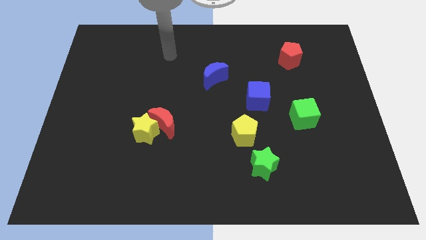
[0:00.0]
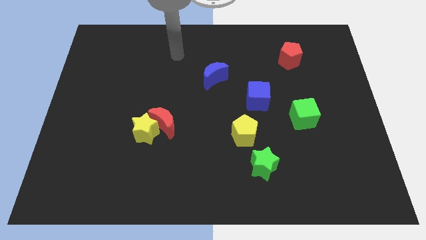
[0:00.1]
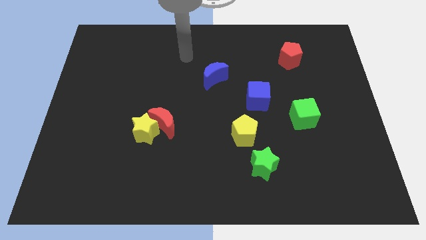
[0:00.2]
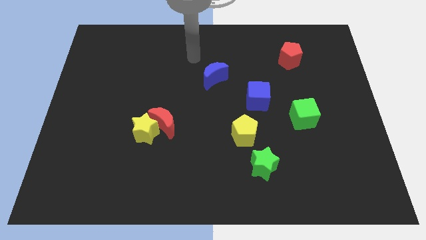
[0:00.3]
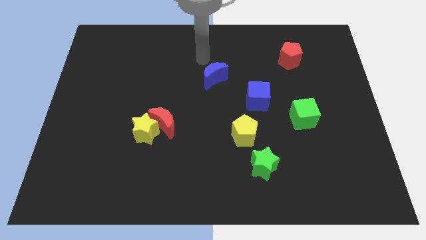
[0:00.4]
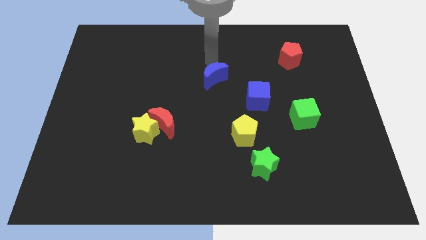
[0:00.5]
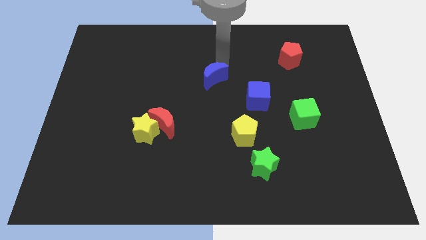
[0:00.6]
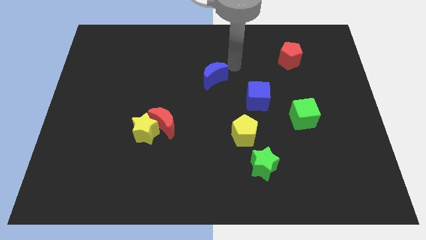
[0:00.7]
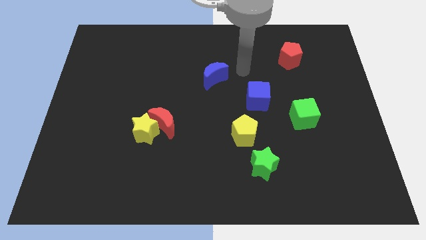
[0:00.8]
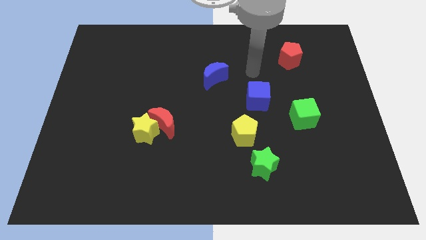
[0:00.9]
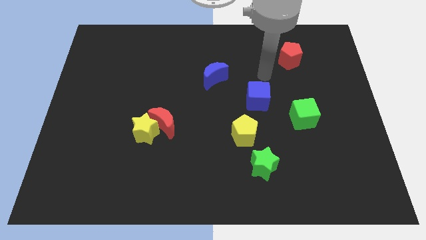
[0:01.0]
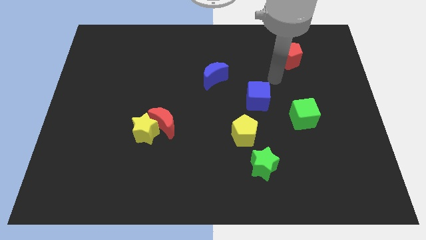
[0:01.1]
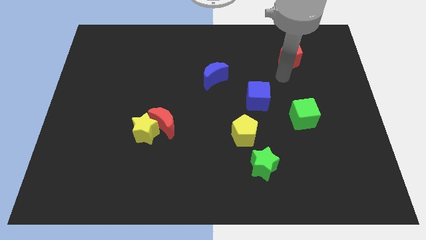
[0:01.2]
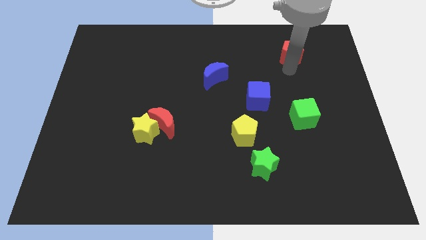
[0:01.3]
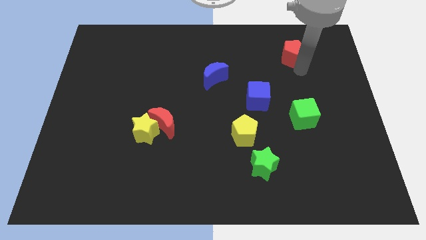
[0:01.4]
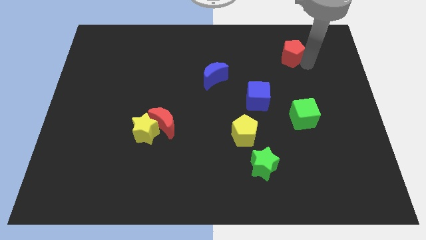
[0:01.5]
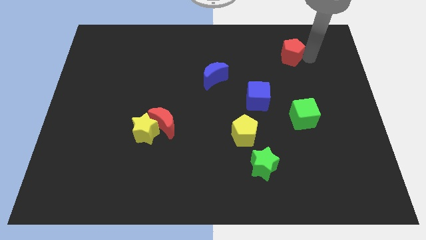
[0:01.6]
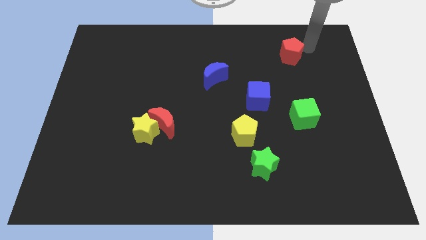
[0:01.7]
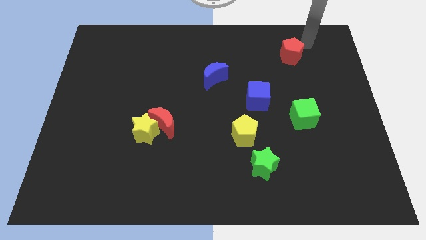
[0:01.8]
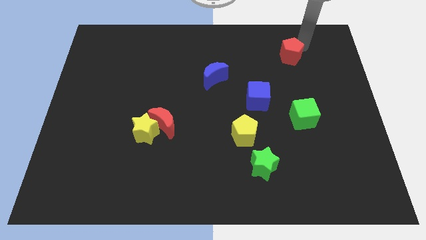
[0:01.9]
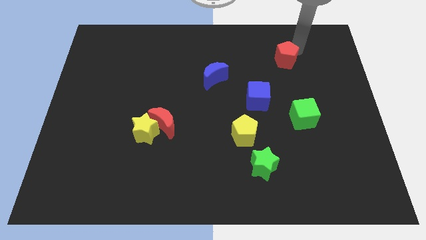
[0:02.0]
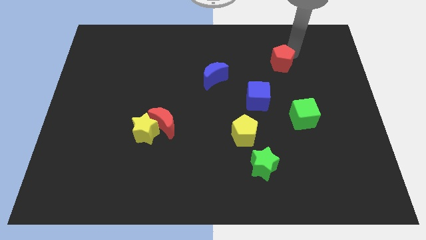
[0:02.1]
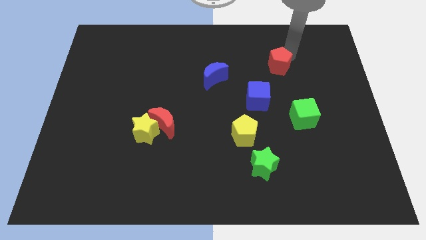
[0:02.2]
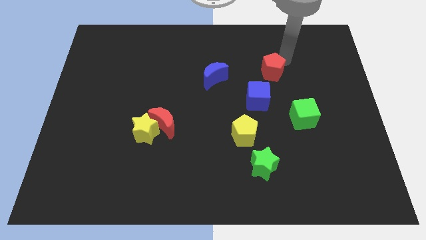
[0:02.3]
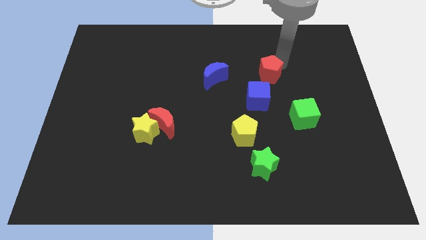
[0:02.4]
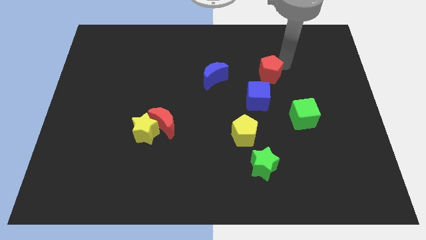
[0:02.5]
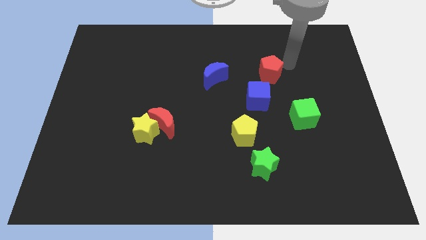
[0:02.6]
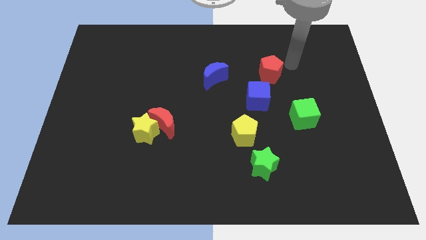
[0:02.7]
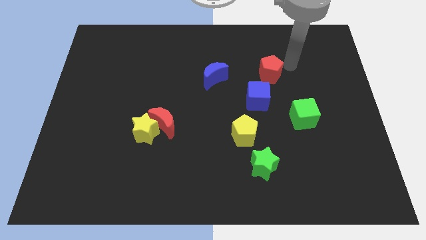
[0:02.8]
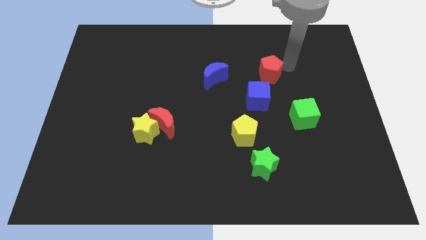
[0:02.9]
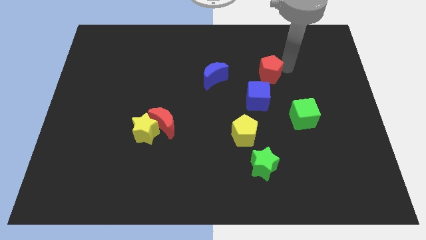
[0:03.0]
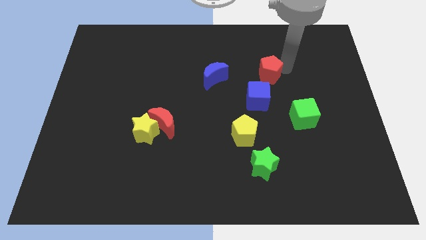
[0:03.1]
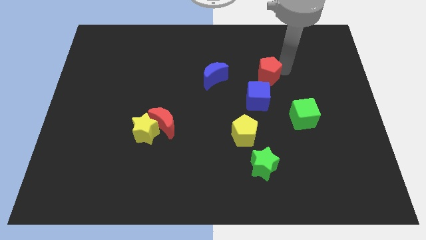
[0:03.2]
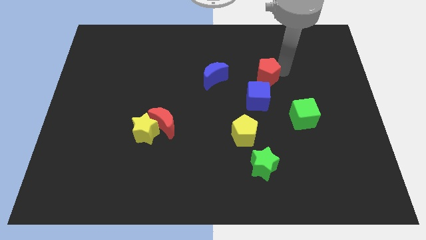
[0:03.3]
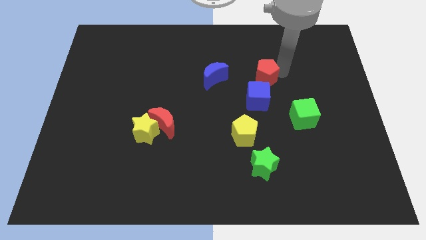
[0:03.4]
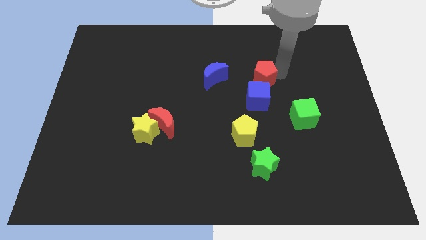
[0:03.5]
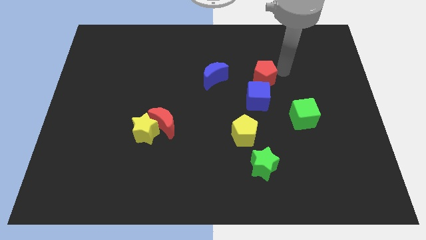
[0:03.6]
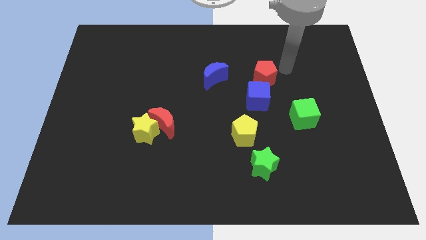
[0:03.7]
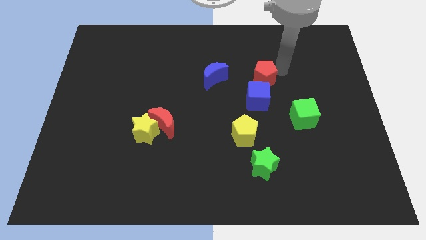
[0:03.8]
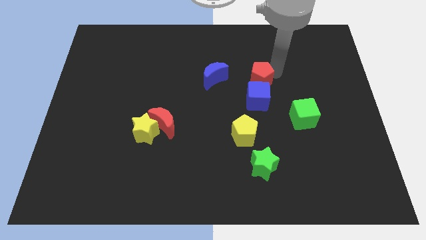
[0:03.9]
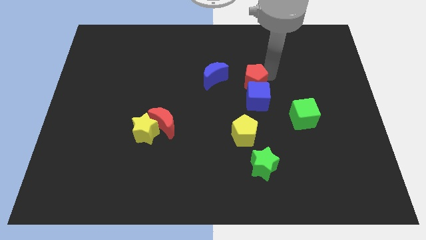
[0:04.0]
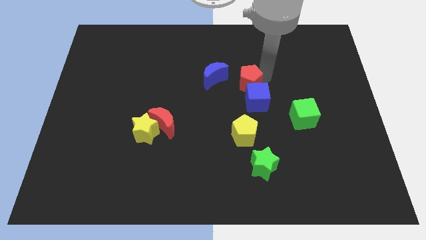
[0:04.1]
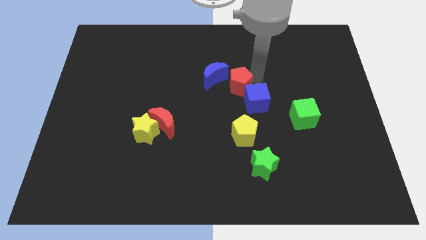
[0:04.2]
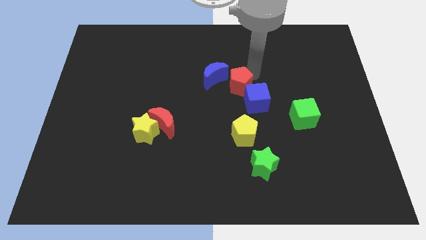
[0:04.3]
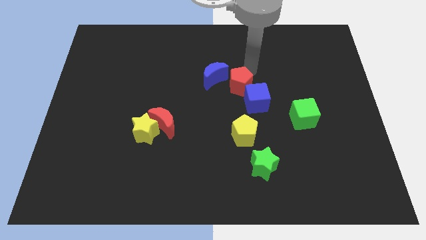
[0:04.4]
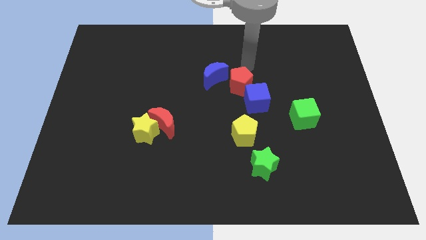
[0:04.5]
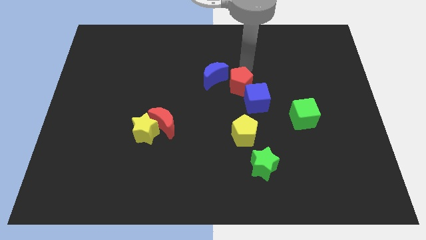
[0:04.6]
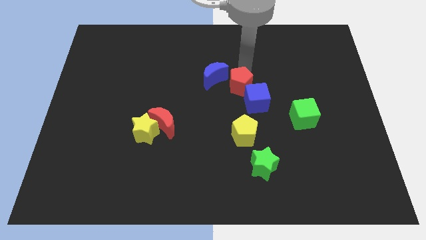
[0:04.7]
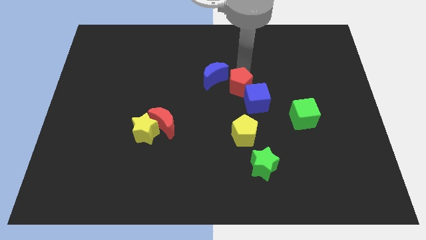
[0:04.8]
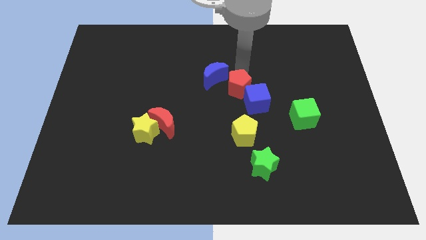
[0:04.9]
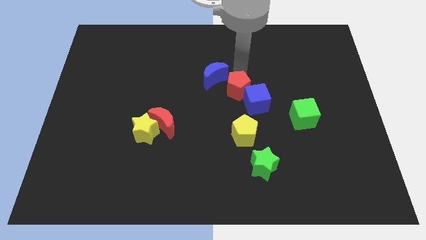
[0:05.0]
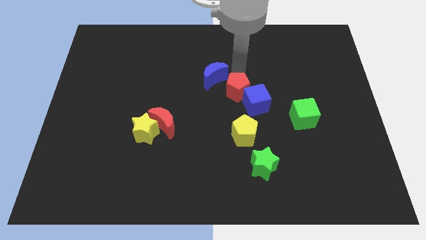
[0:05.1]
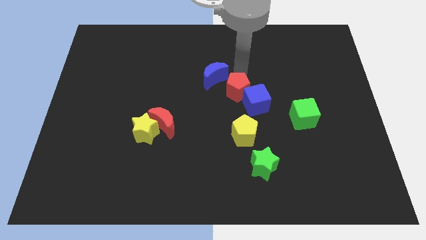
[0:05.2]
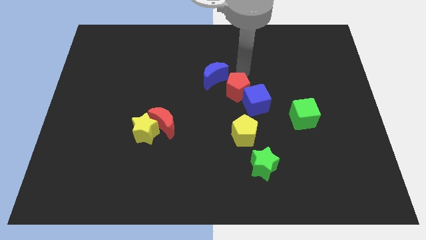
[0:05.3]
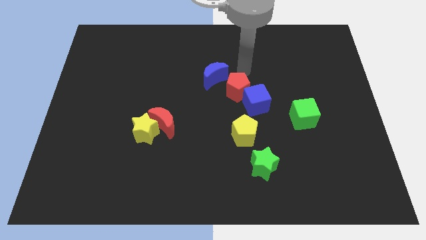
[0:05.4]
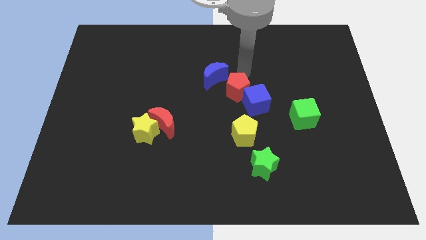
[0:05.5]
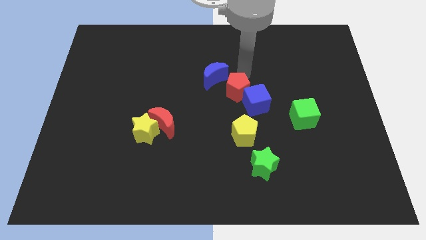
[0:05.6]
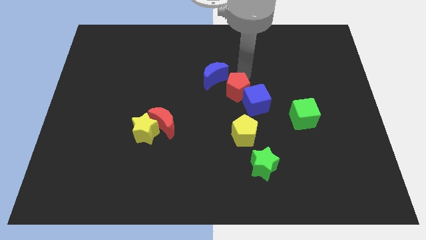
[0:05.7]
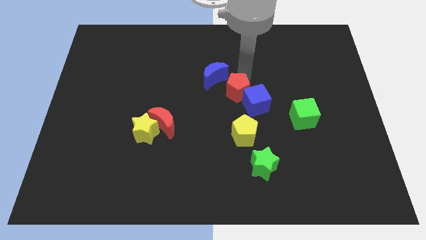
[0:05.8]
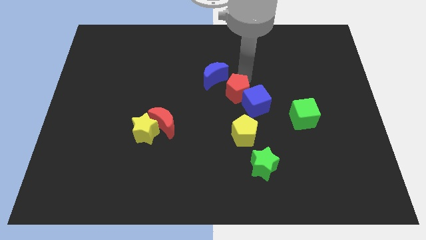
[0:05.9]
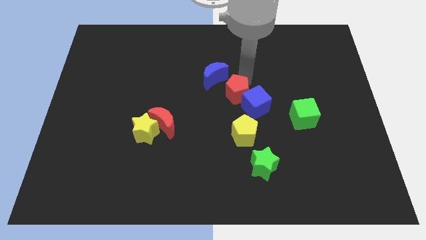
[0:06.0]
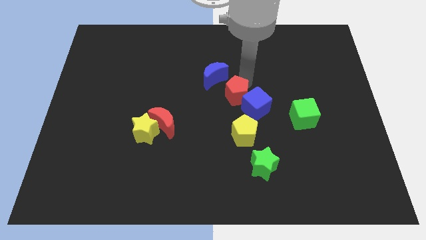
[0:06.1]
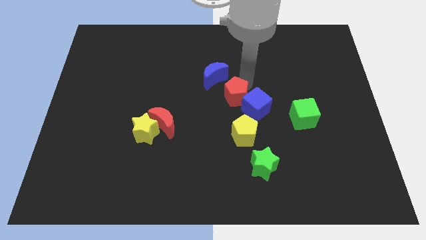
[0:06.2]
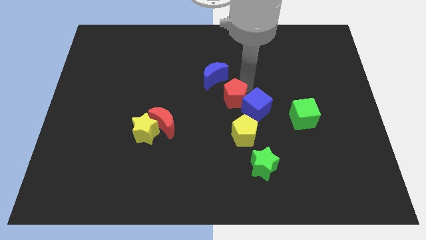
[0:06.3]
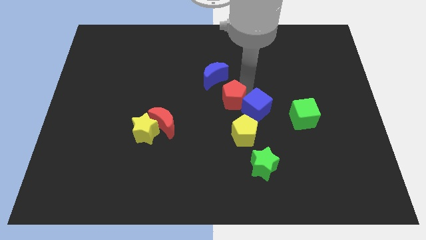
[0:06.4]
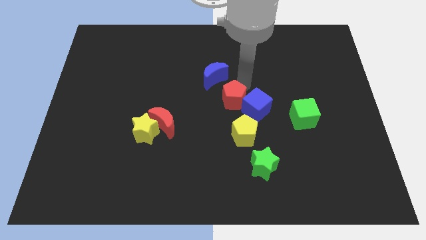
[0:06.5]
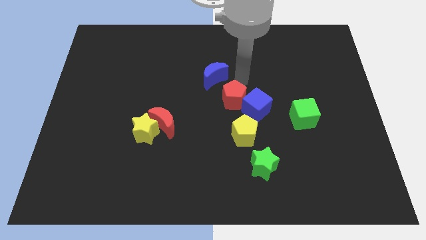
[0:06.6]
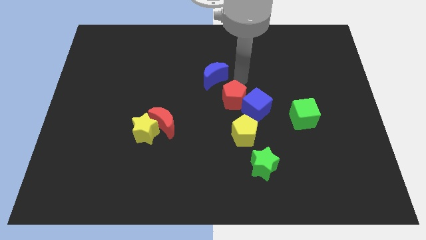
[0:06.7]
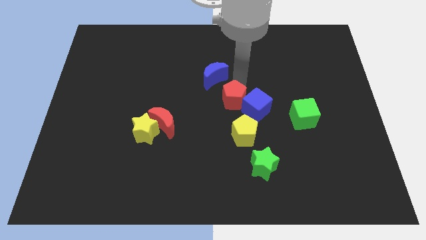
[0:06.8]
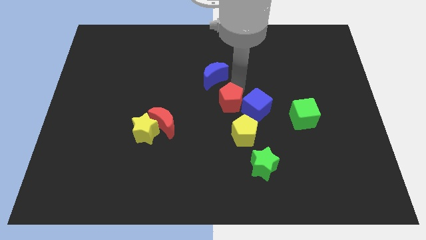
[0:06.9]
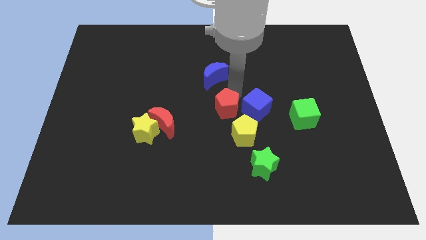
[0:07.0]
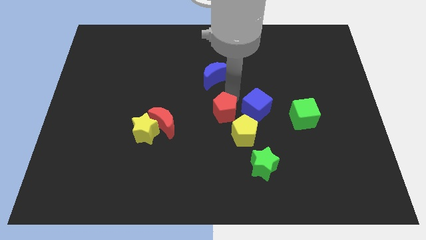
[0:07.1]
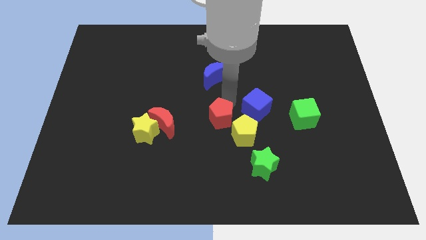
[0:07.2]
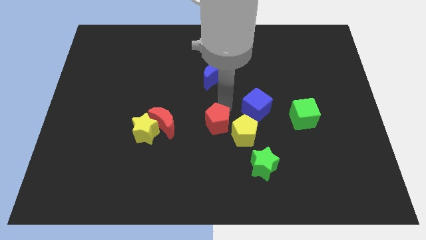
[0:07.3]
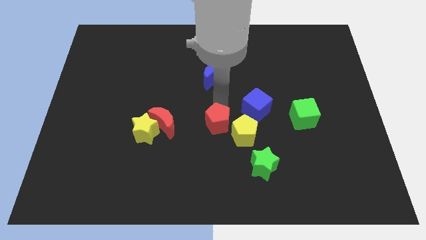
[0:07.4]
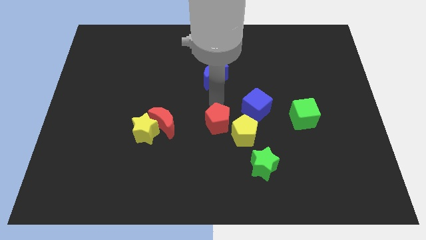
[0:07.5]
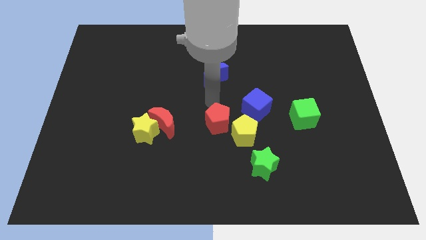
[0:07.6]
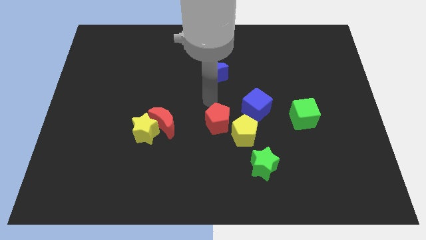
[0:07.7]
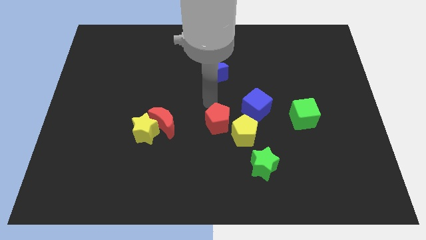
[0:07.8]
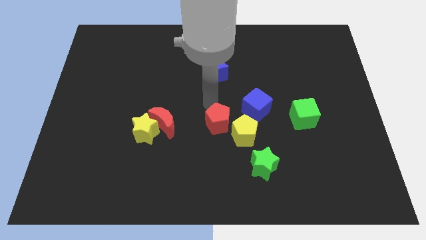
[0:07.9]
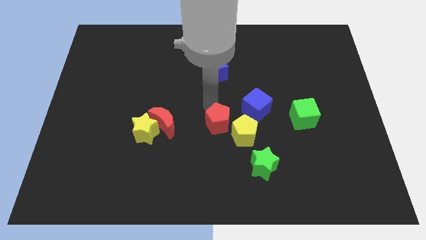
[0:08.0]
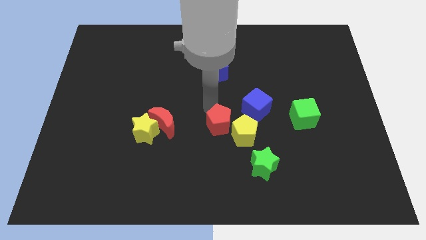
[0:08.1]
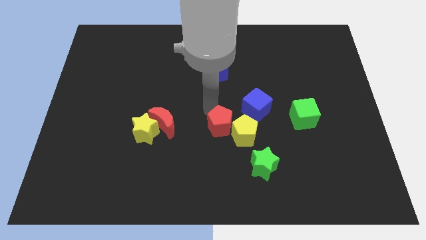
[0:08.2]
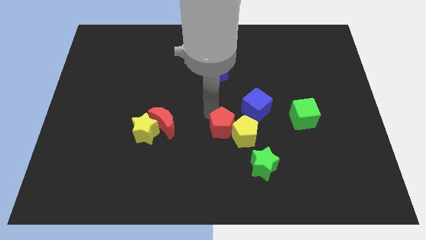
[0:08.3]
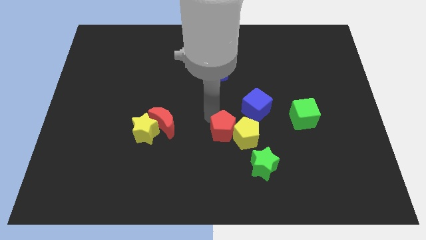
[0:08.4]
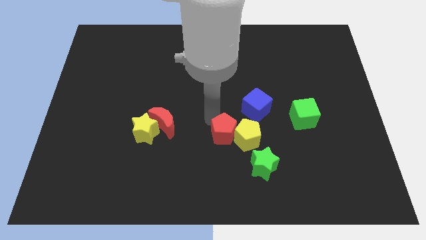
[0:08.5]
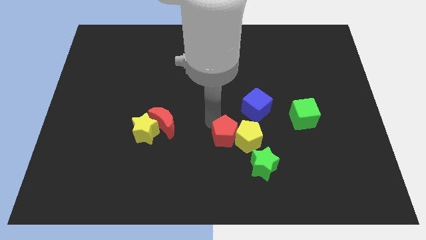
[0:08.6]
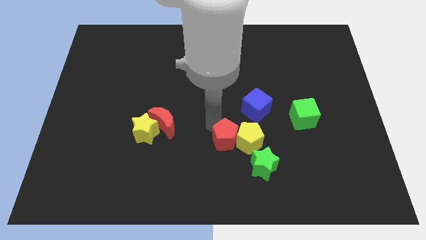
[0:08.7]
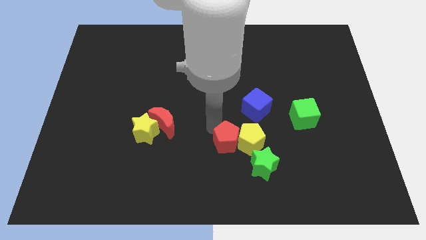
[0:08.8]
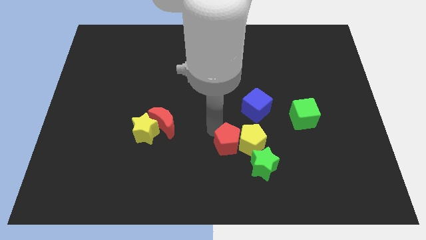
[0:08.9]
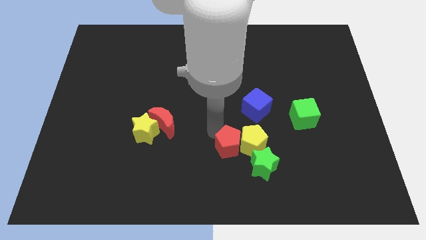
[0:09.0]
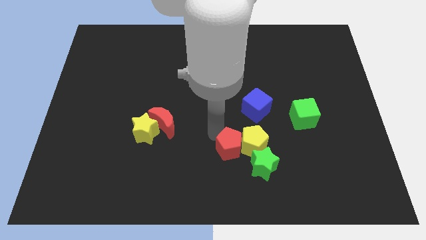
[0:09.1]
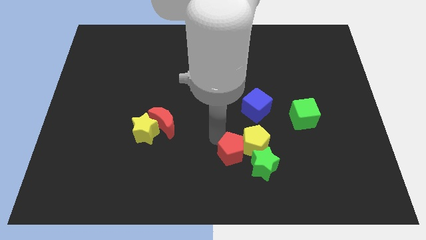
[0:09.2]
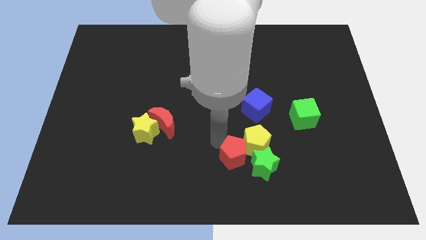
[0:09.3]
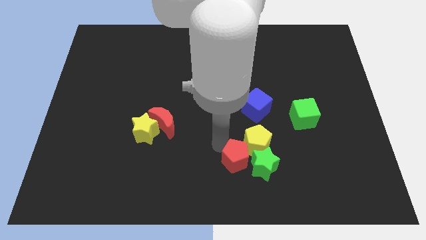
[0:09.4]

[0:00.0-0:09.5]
slide the red pentagon below the yellow pentagon
